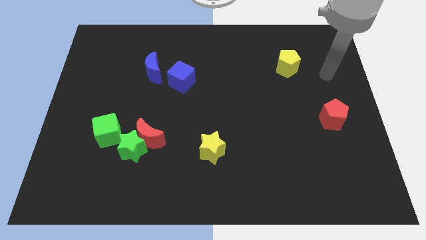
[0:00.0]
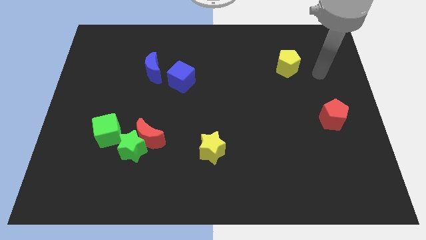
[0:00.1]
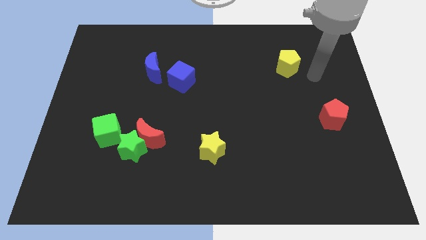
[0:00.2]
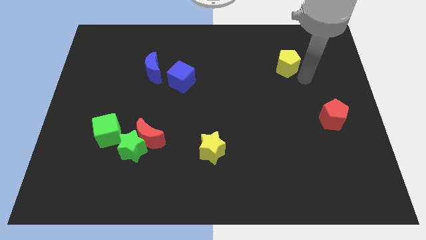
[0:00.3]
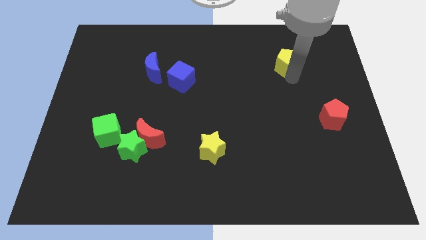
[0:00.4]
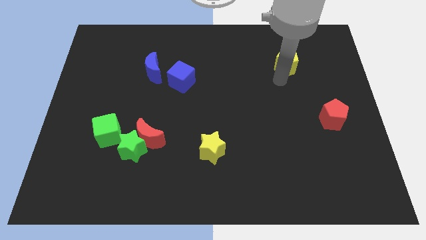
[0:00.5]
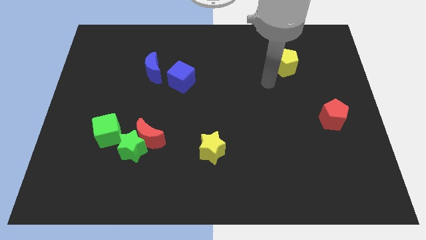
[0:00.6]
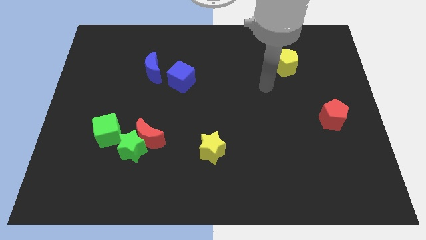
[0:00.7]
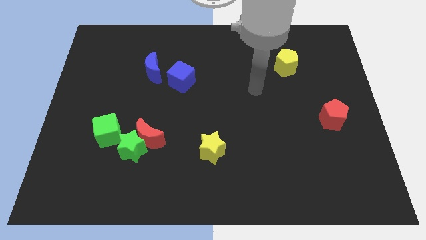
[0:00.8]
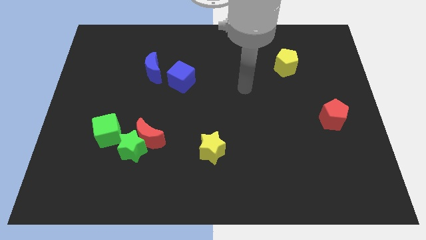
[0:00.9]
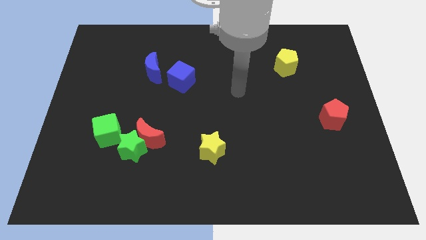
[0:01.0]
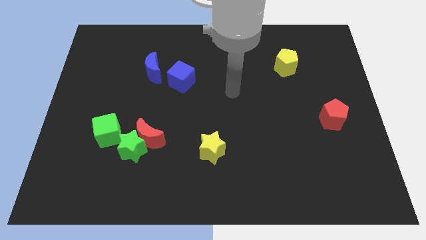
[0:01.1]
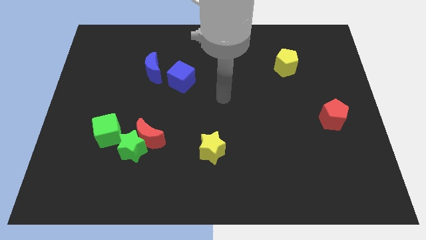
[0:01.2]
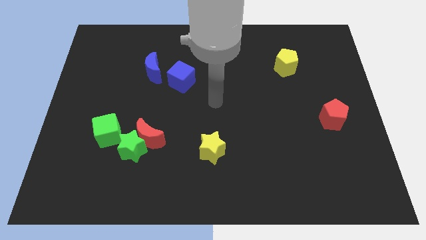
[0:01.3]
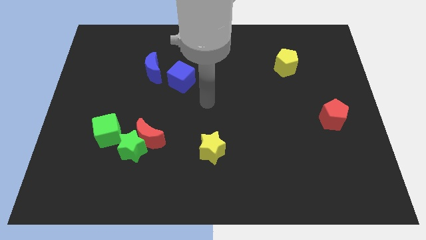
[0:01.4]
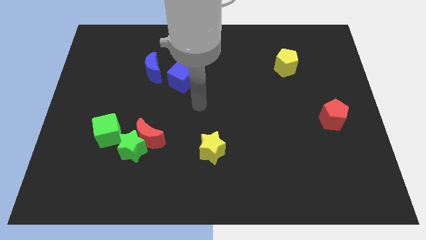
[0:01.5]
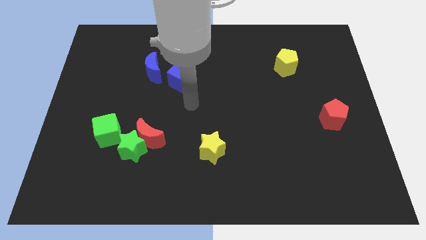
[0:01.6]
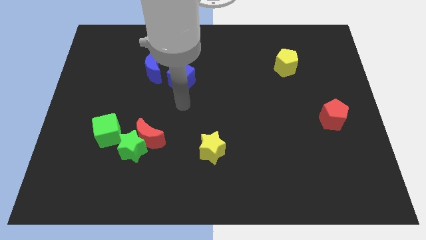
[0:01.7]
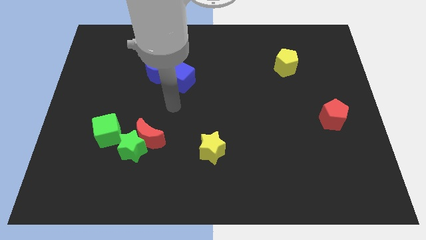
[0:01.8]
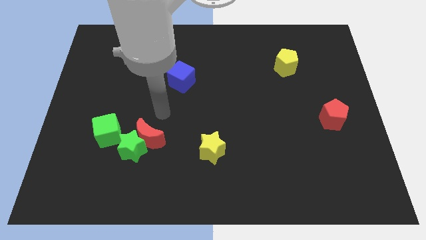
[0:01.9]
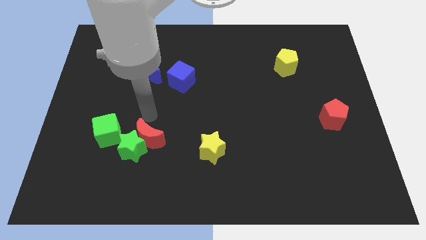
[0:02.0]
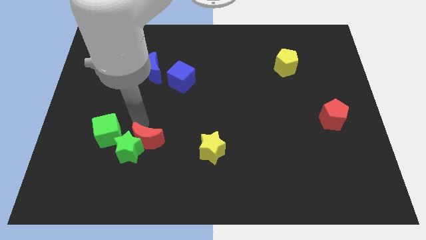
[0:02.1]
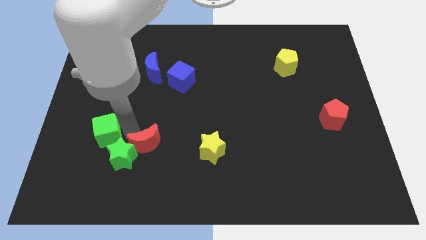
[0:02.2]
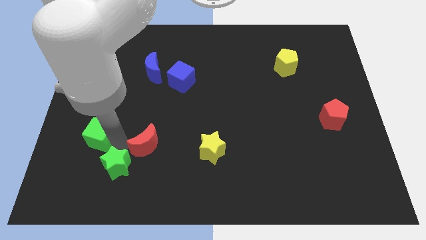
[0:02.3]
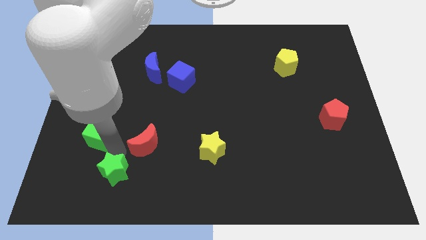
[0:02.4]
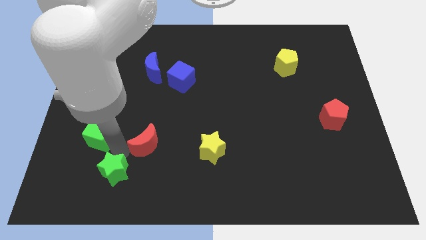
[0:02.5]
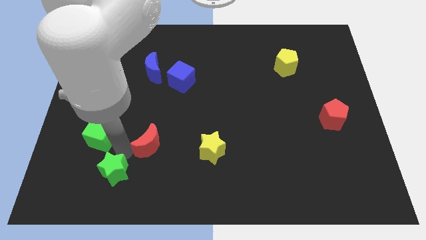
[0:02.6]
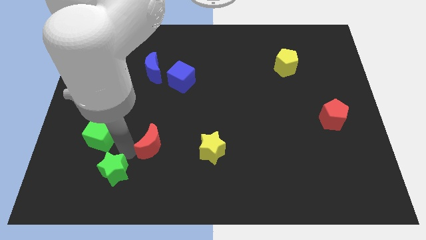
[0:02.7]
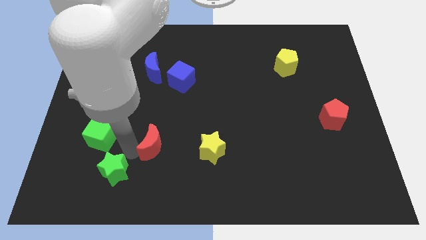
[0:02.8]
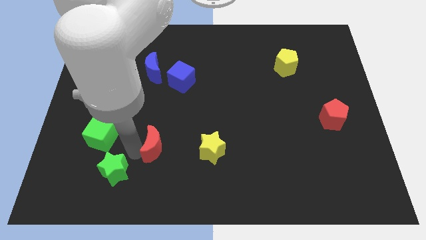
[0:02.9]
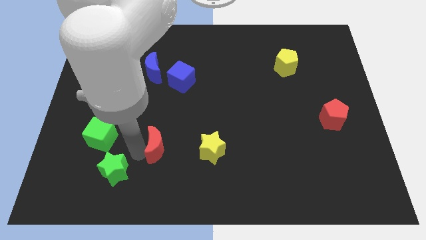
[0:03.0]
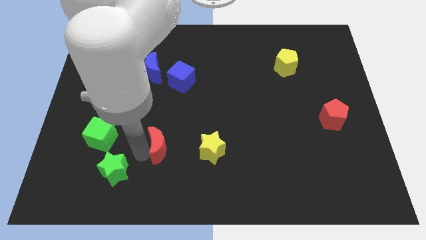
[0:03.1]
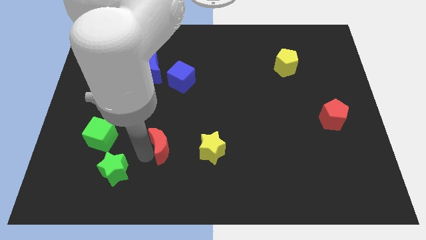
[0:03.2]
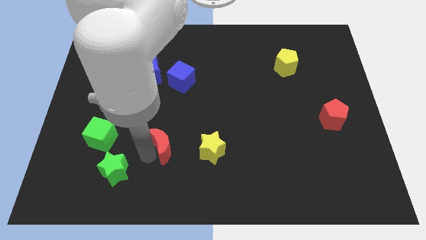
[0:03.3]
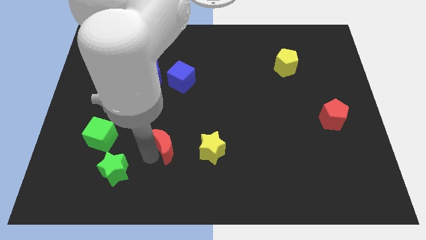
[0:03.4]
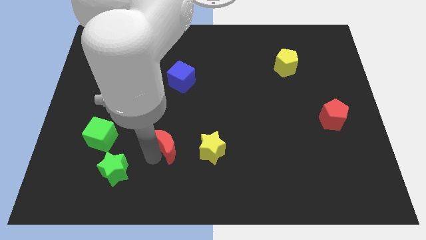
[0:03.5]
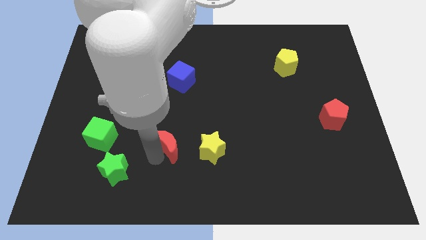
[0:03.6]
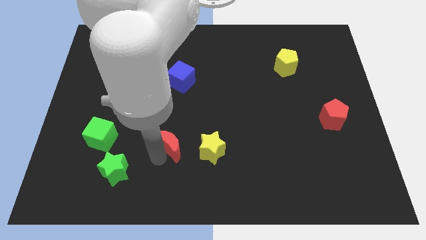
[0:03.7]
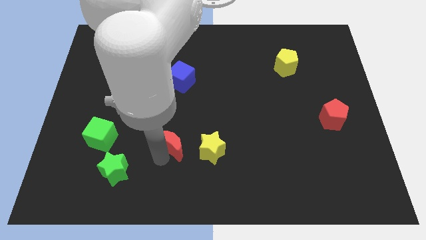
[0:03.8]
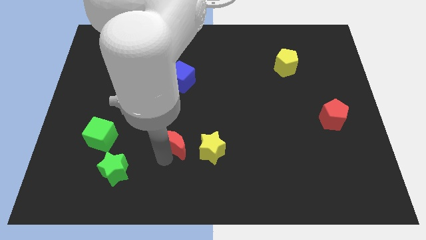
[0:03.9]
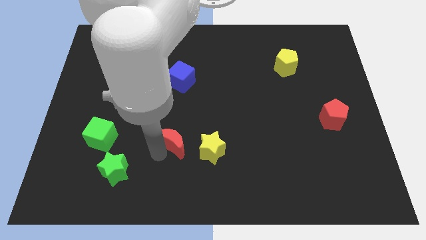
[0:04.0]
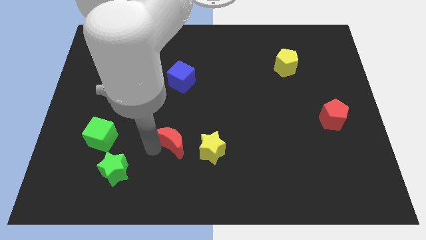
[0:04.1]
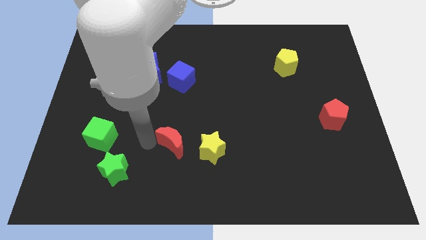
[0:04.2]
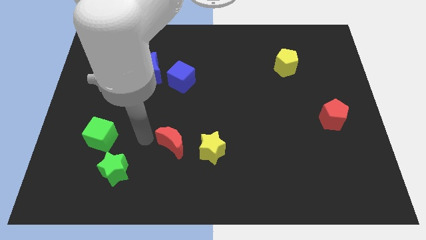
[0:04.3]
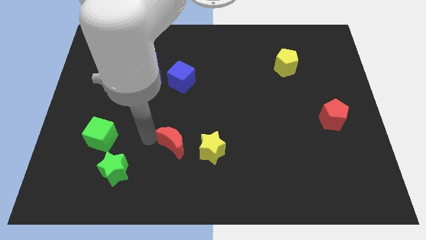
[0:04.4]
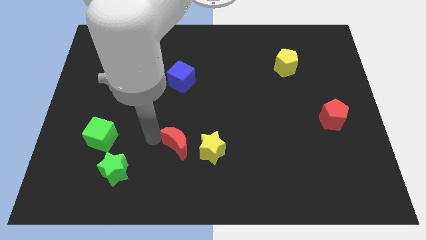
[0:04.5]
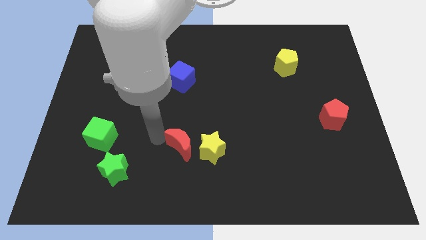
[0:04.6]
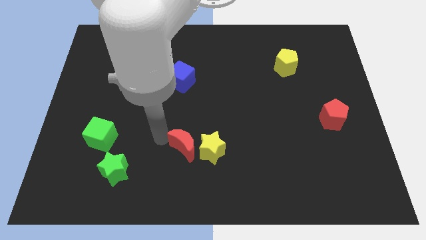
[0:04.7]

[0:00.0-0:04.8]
slide the red moon to the yellow star

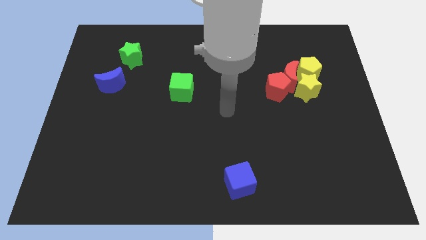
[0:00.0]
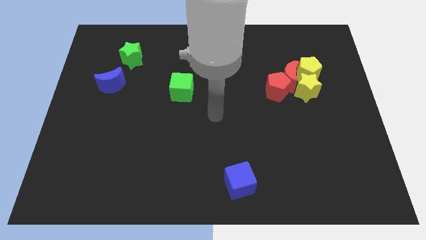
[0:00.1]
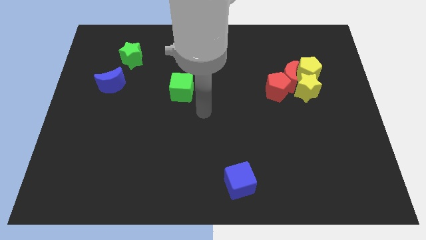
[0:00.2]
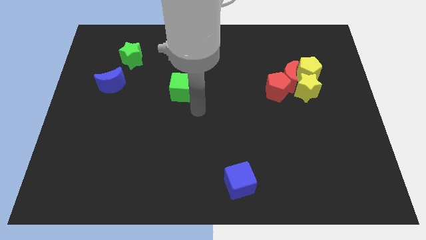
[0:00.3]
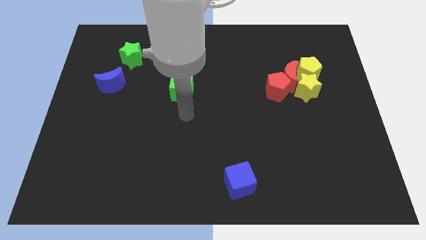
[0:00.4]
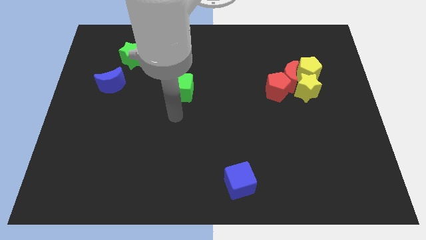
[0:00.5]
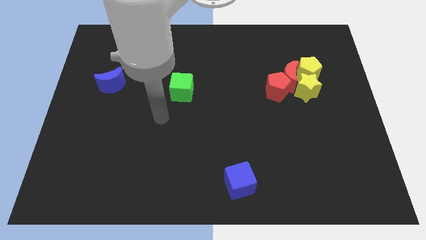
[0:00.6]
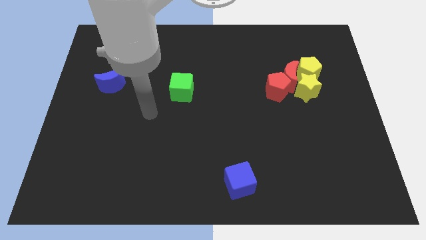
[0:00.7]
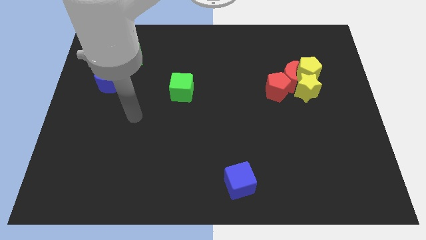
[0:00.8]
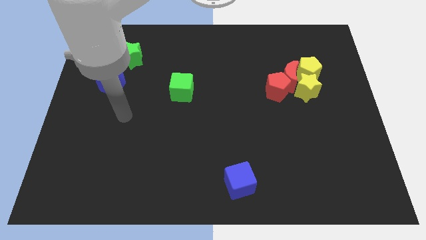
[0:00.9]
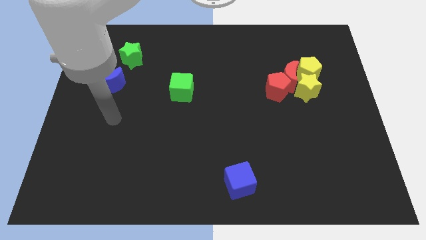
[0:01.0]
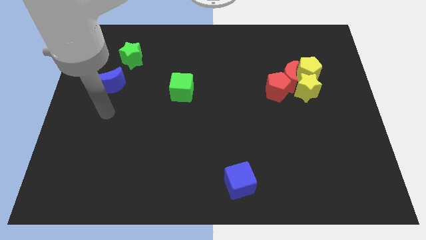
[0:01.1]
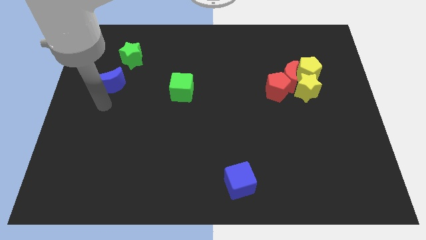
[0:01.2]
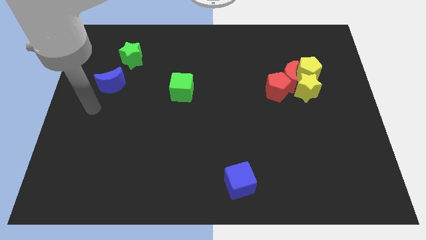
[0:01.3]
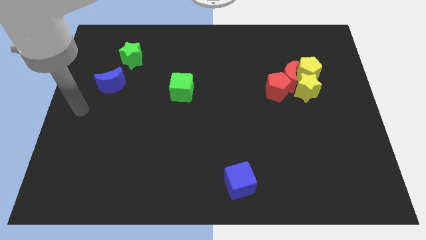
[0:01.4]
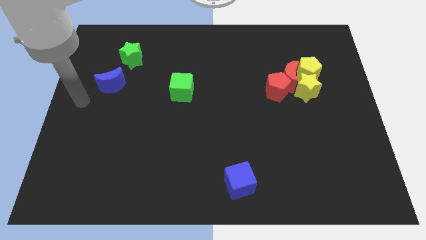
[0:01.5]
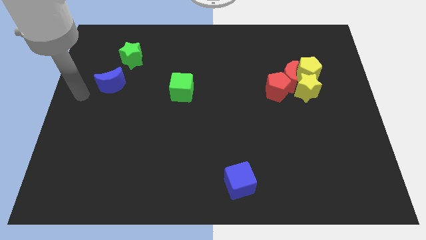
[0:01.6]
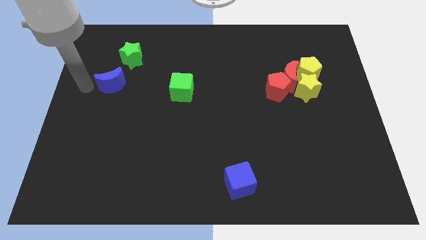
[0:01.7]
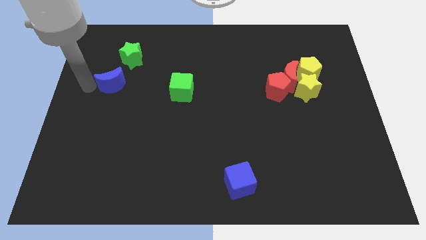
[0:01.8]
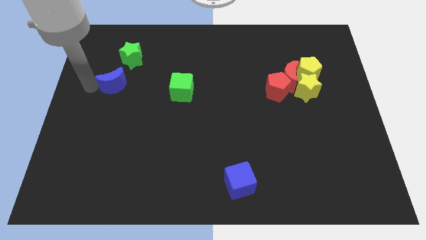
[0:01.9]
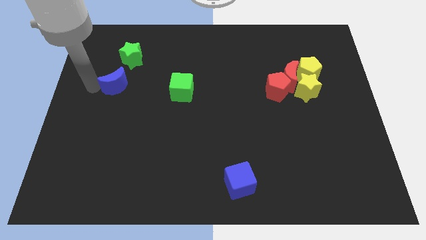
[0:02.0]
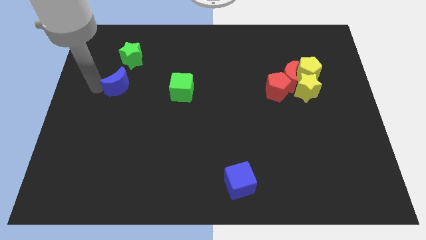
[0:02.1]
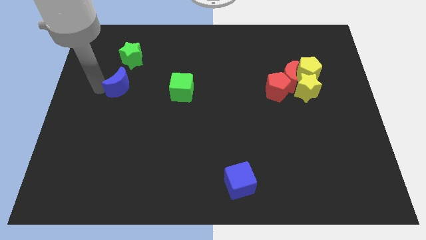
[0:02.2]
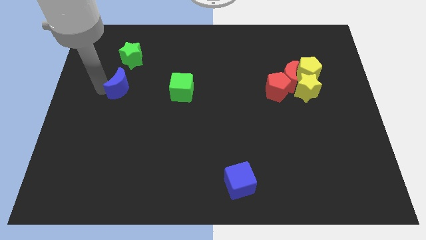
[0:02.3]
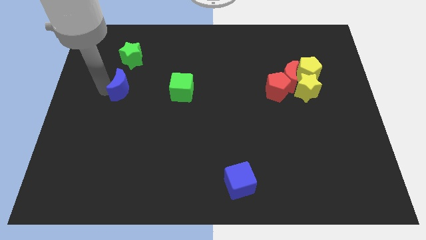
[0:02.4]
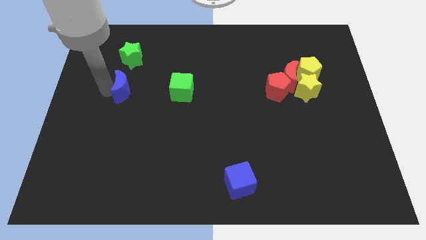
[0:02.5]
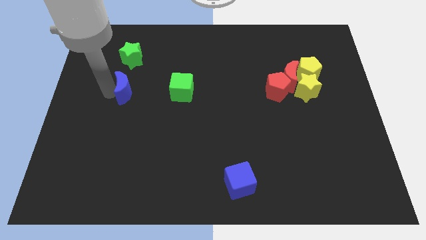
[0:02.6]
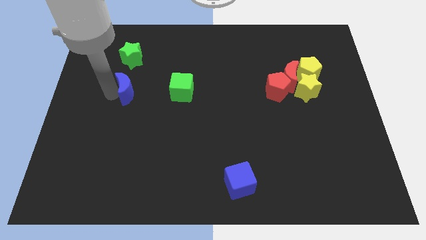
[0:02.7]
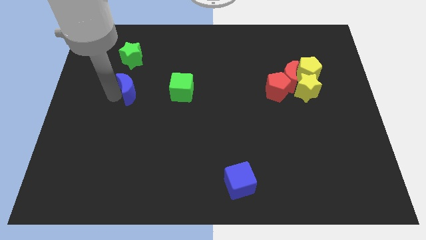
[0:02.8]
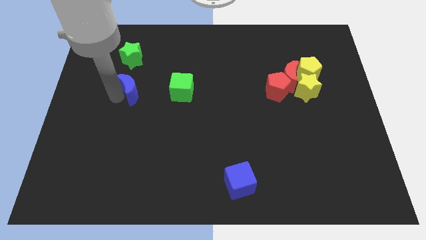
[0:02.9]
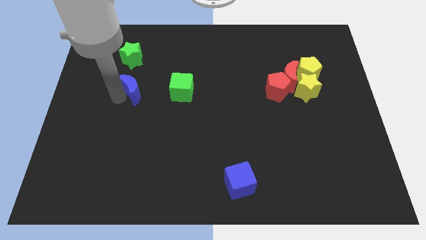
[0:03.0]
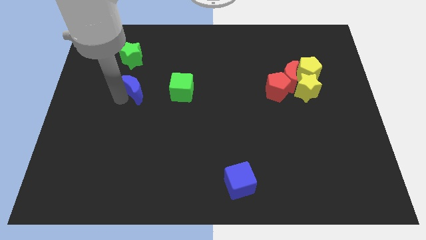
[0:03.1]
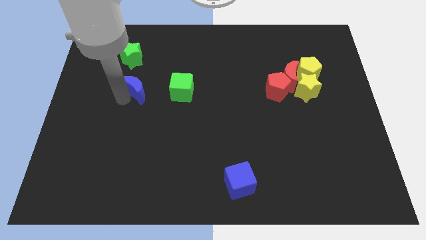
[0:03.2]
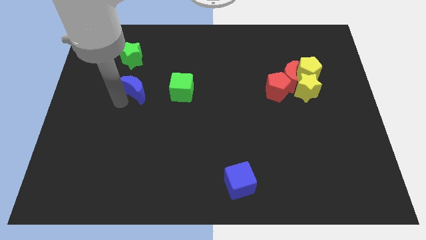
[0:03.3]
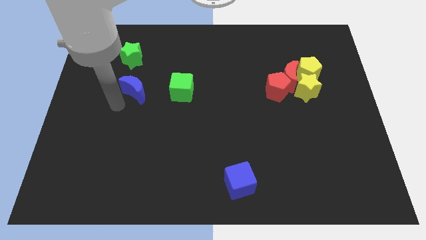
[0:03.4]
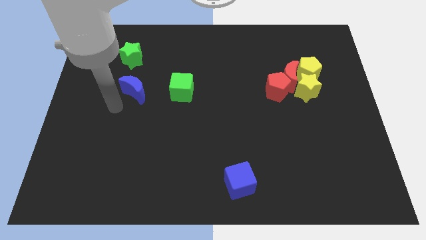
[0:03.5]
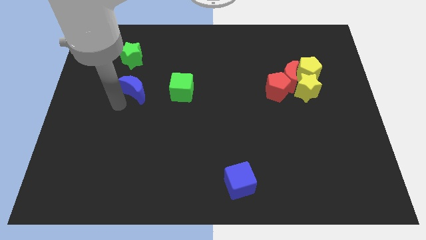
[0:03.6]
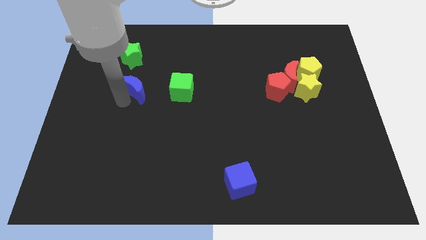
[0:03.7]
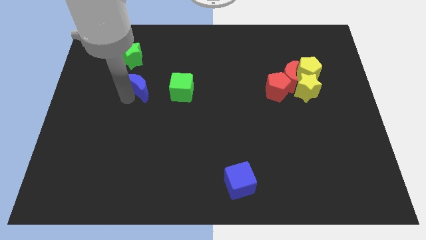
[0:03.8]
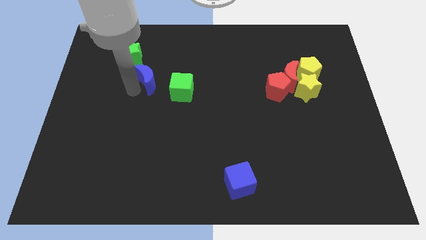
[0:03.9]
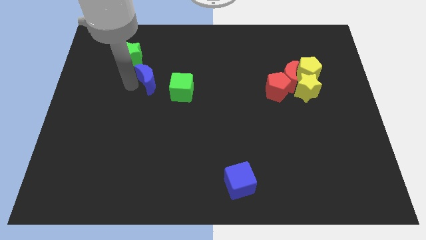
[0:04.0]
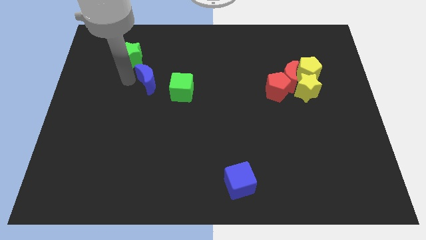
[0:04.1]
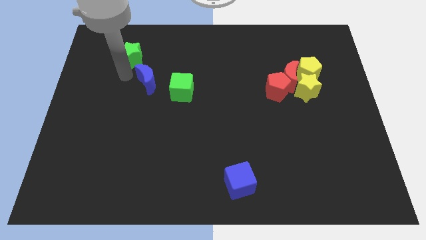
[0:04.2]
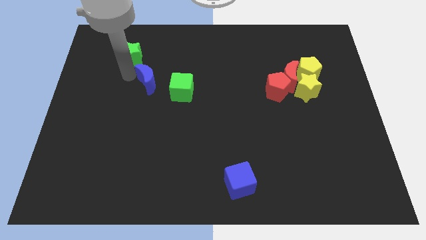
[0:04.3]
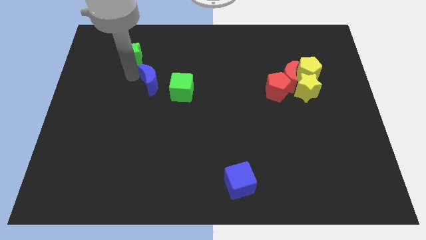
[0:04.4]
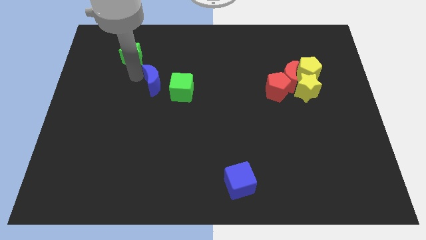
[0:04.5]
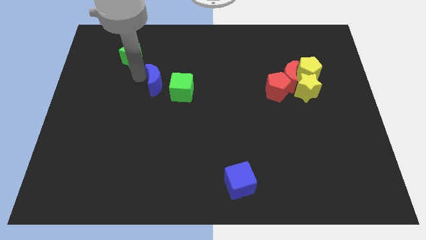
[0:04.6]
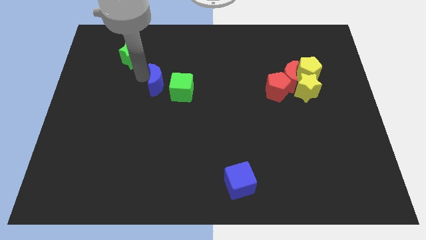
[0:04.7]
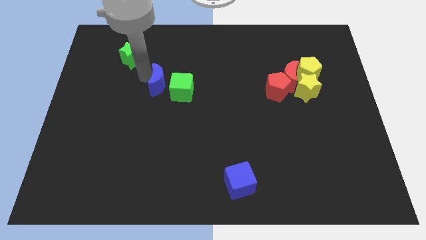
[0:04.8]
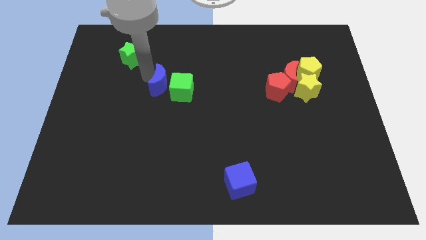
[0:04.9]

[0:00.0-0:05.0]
push the blue moon to the green cube
